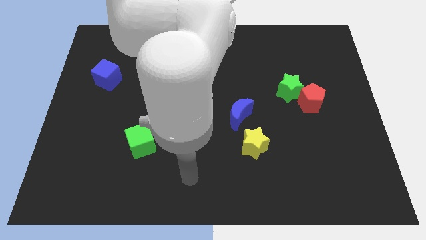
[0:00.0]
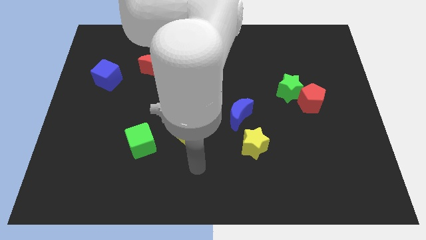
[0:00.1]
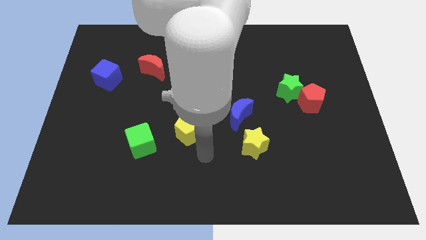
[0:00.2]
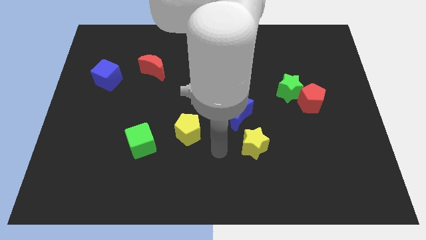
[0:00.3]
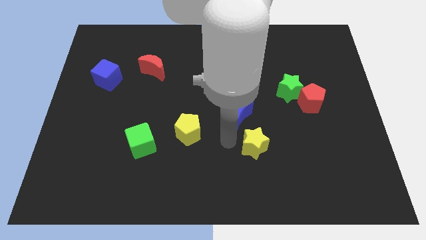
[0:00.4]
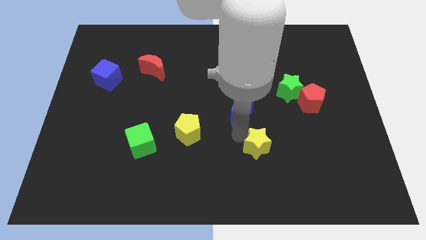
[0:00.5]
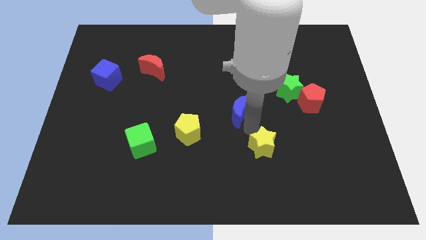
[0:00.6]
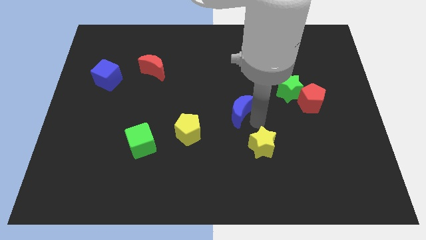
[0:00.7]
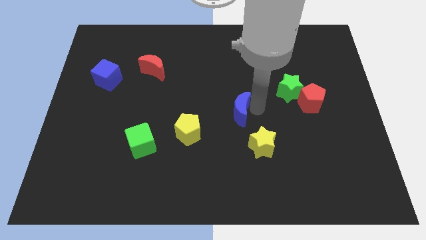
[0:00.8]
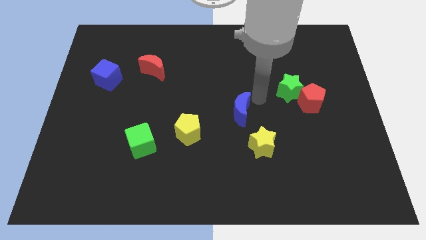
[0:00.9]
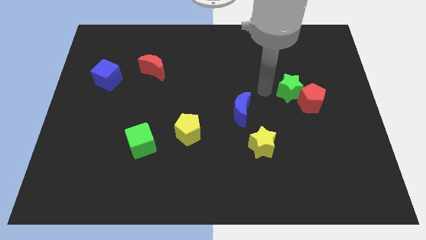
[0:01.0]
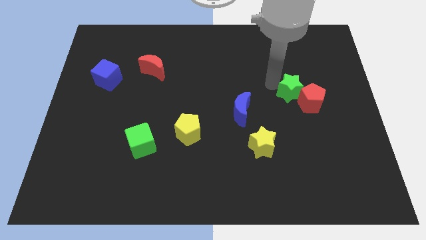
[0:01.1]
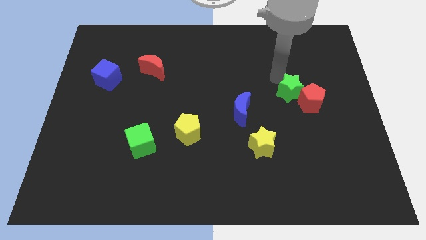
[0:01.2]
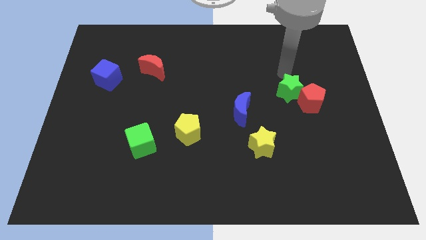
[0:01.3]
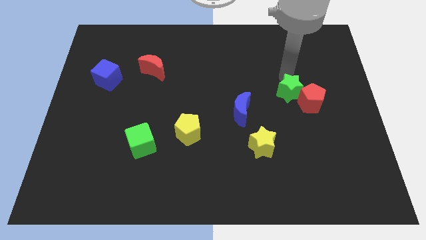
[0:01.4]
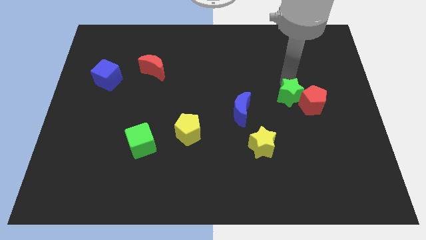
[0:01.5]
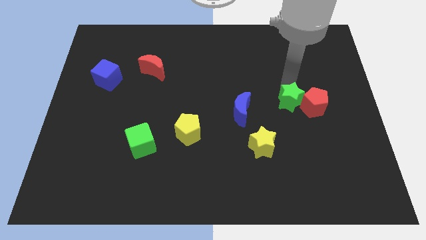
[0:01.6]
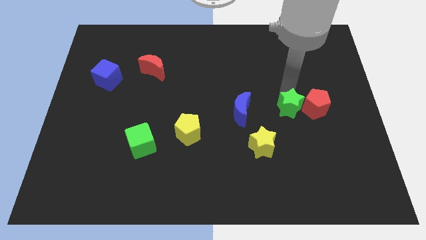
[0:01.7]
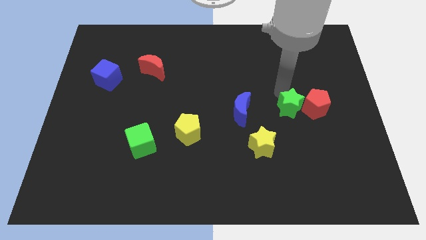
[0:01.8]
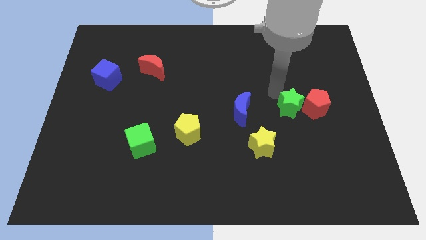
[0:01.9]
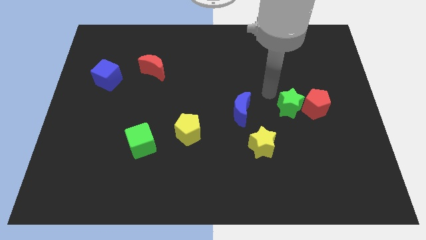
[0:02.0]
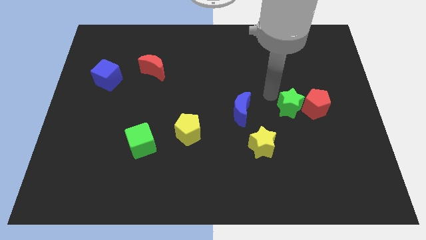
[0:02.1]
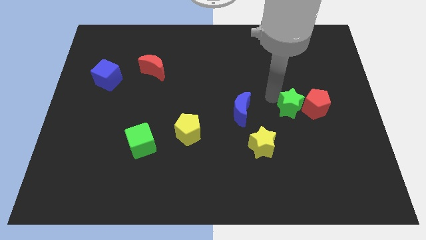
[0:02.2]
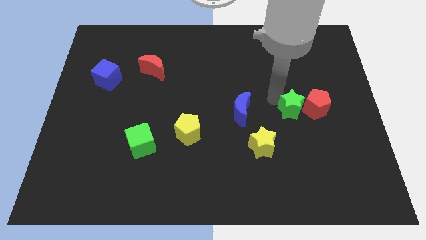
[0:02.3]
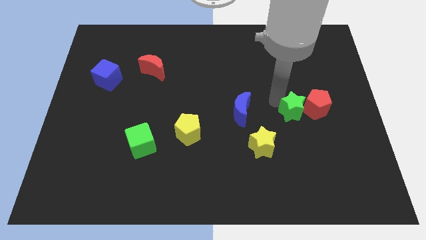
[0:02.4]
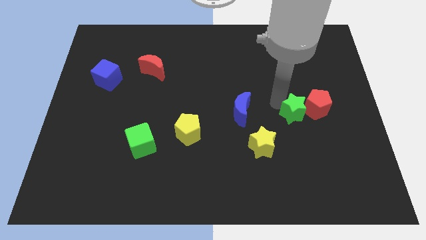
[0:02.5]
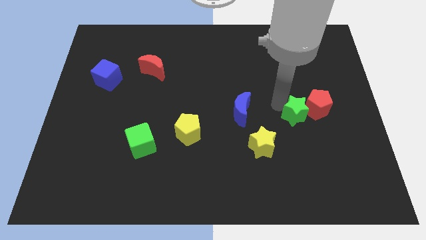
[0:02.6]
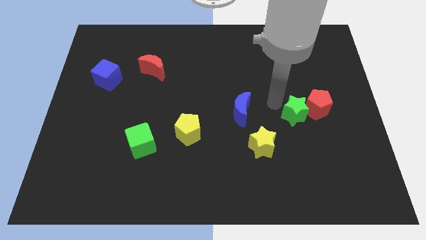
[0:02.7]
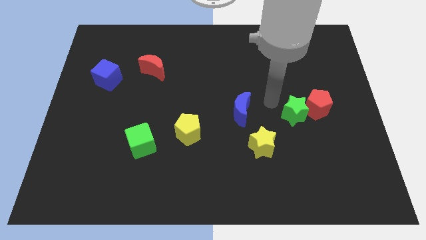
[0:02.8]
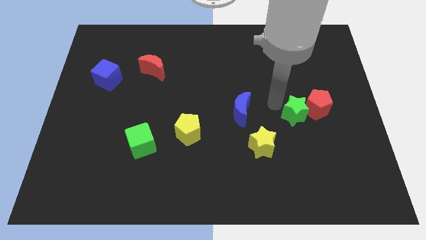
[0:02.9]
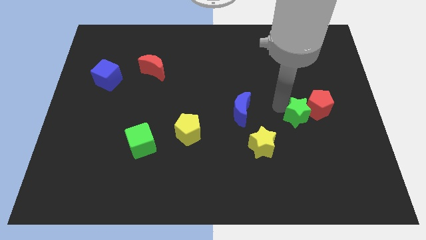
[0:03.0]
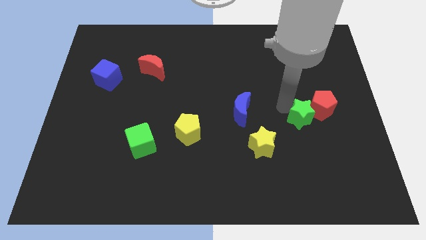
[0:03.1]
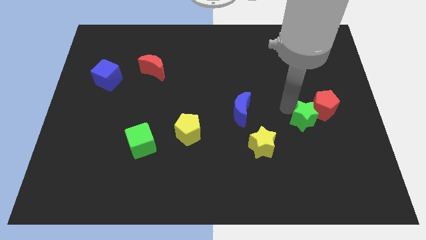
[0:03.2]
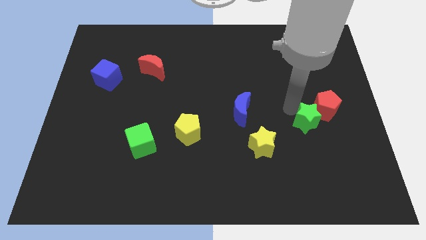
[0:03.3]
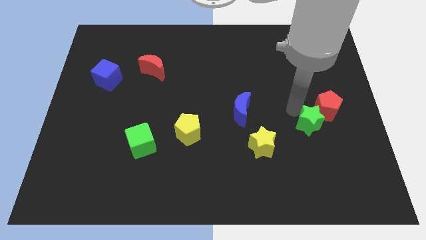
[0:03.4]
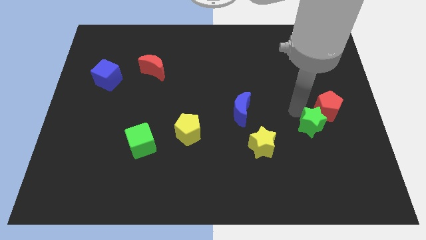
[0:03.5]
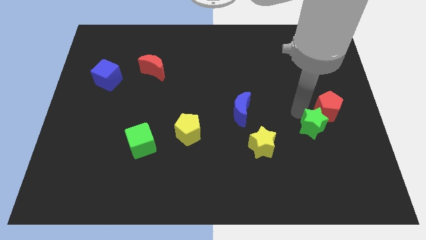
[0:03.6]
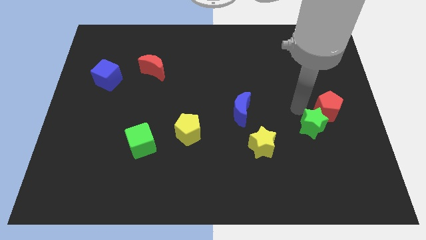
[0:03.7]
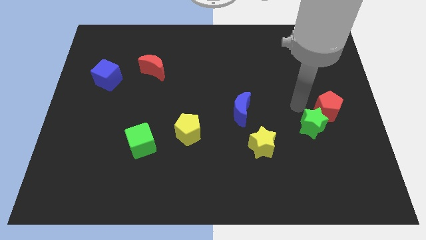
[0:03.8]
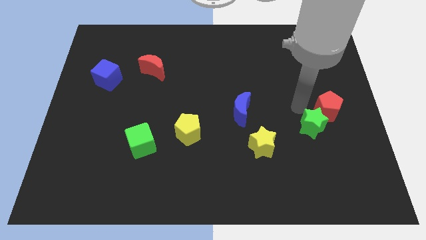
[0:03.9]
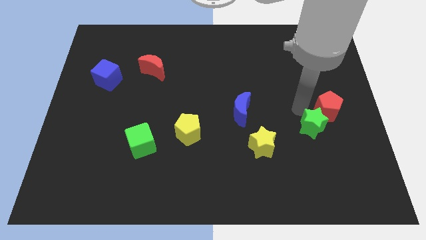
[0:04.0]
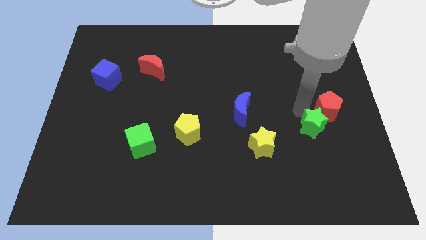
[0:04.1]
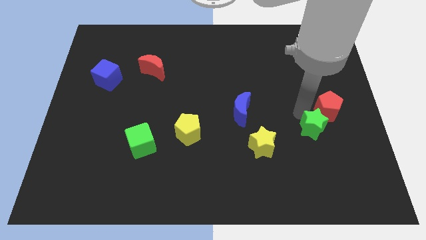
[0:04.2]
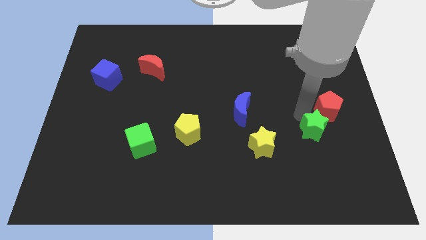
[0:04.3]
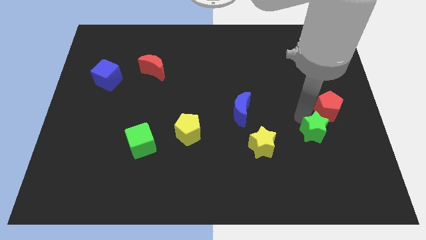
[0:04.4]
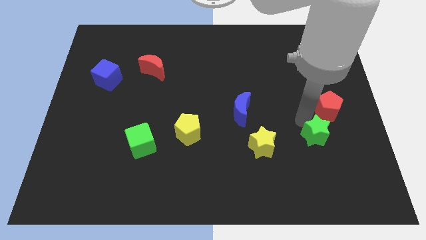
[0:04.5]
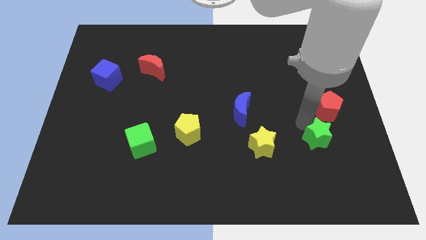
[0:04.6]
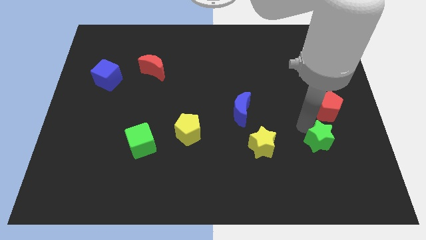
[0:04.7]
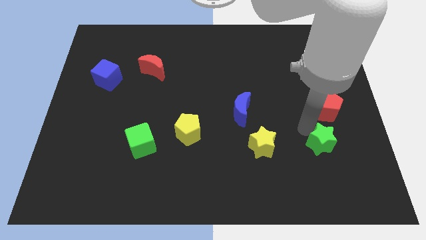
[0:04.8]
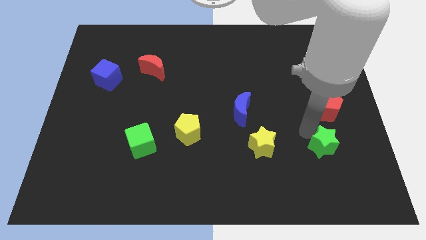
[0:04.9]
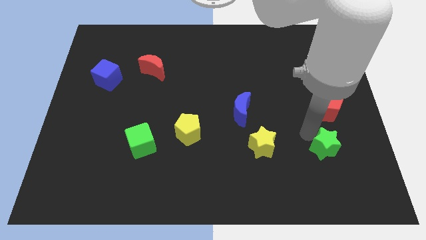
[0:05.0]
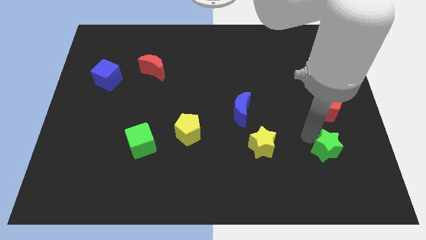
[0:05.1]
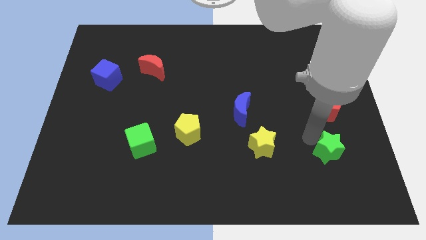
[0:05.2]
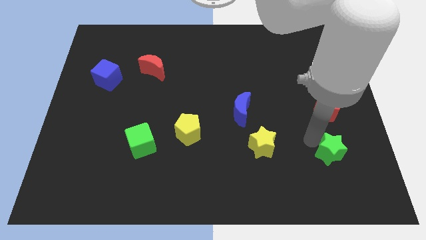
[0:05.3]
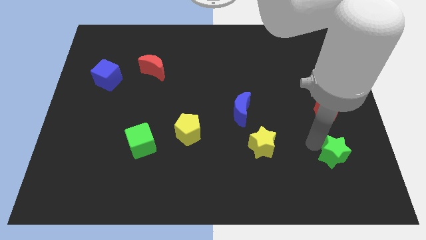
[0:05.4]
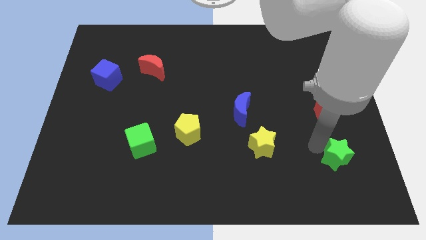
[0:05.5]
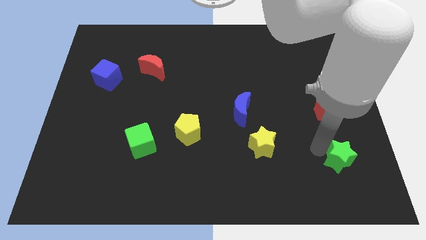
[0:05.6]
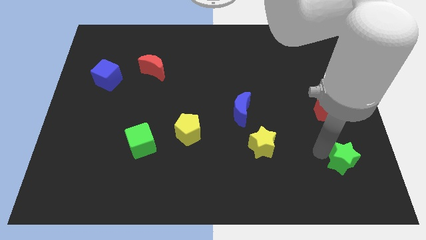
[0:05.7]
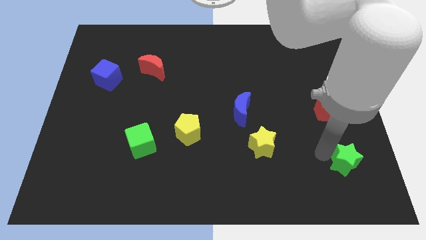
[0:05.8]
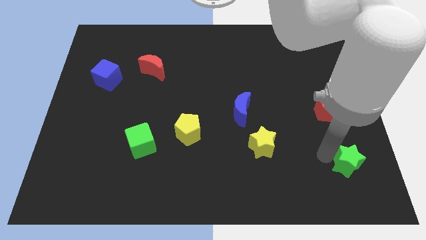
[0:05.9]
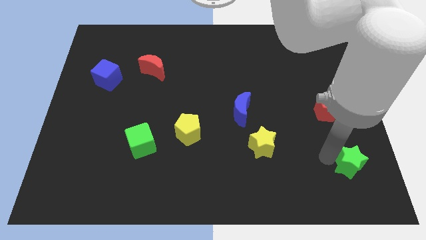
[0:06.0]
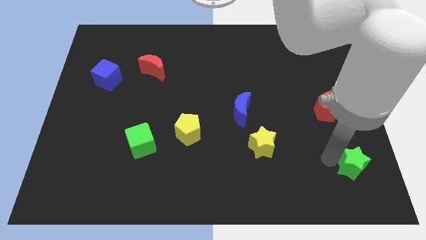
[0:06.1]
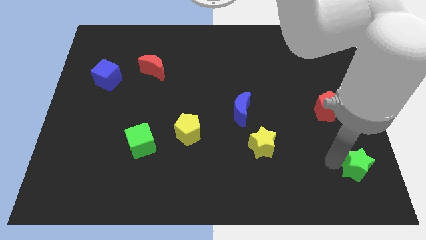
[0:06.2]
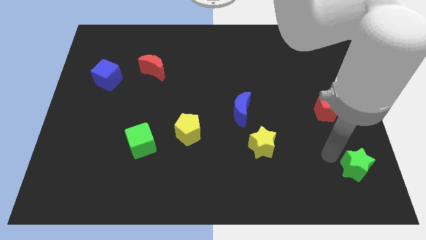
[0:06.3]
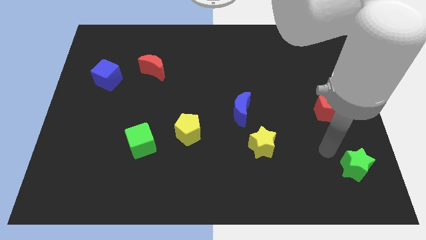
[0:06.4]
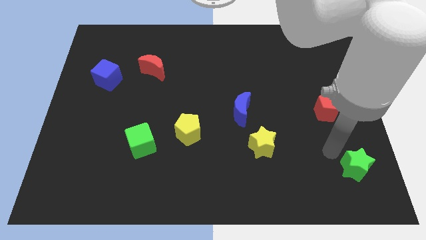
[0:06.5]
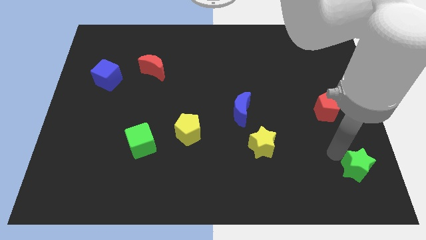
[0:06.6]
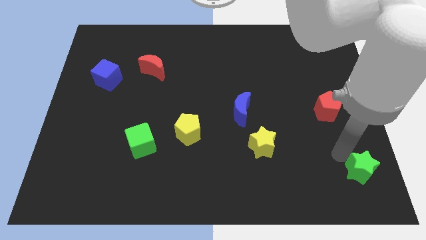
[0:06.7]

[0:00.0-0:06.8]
move the green star to the bottom right of the board
